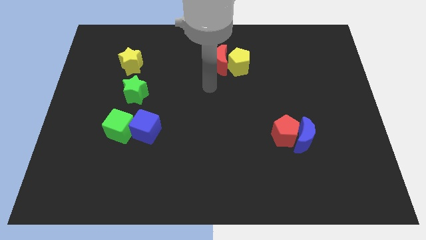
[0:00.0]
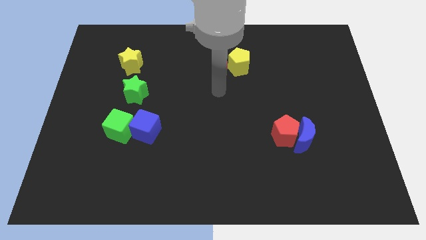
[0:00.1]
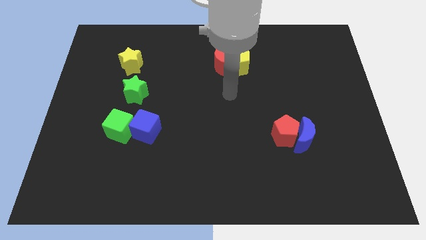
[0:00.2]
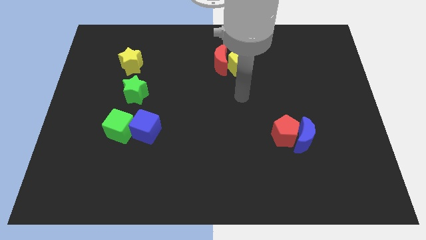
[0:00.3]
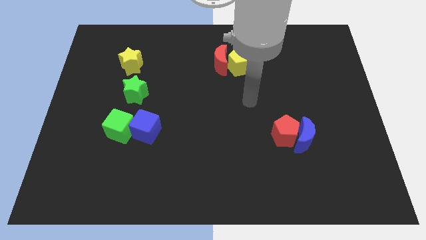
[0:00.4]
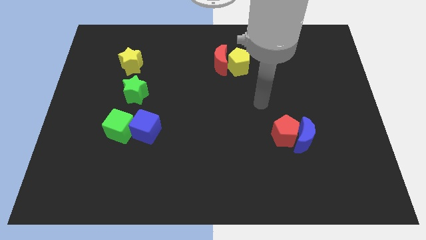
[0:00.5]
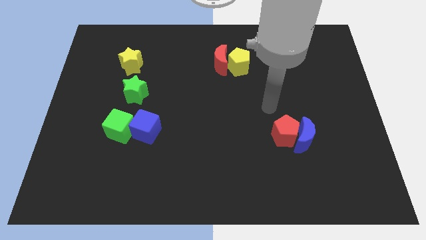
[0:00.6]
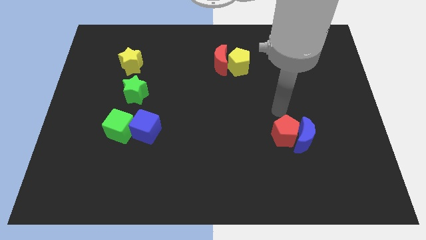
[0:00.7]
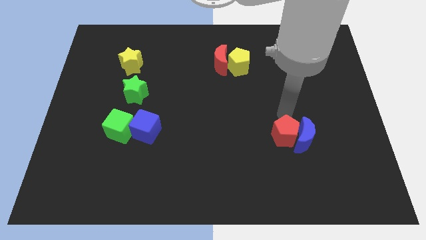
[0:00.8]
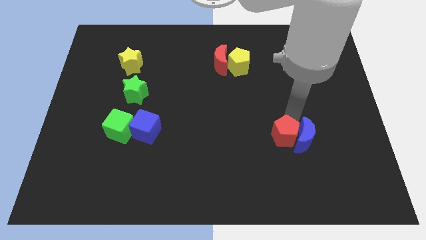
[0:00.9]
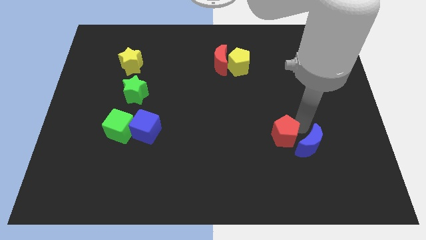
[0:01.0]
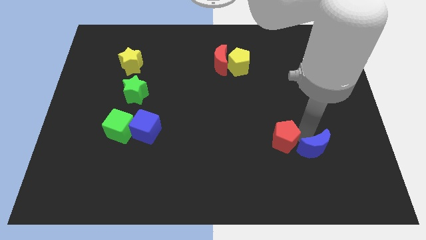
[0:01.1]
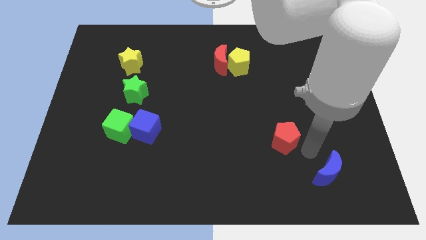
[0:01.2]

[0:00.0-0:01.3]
pull the red pentagon apart from the blue moon

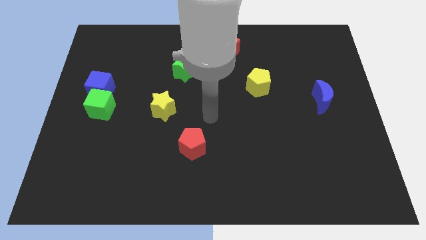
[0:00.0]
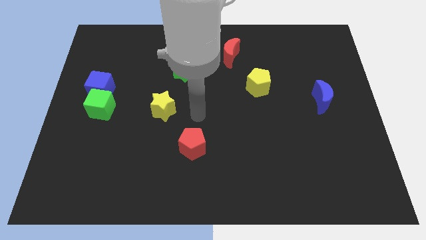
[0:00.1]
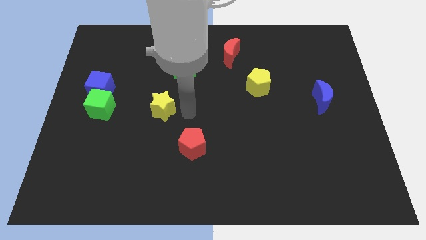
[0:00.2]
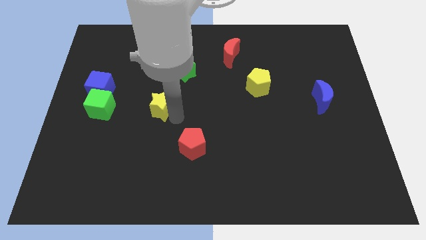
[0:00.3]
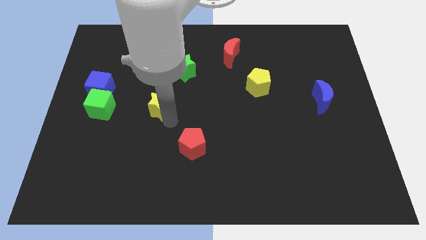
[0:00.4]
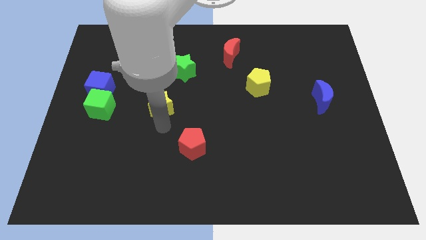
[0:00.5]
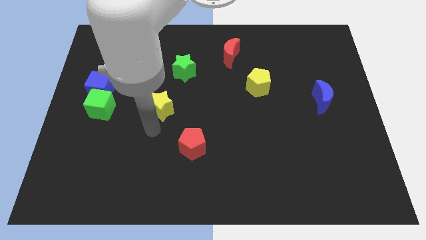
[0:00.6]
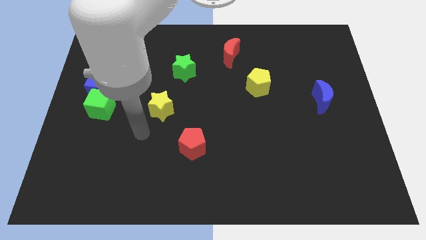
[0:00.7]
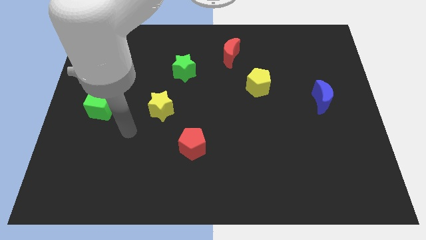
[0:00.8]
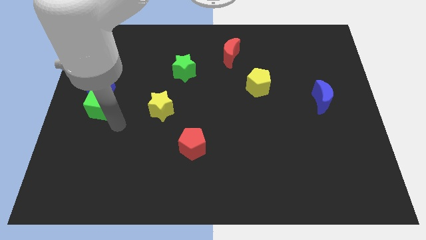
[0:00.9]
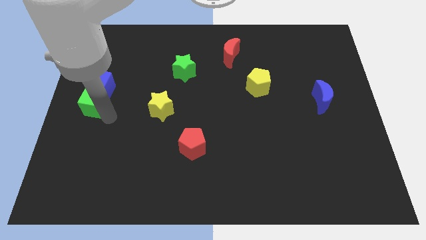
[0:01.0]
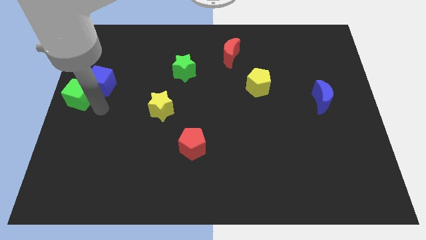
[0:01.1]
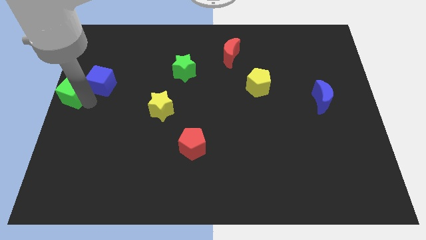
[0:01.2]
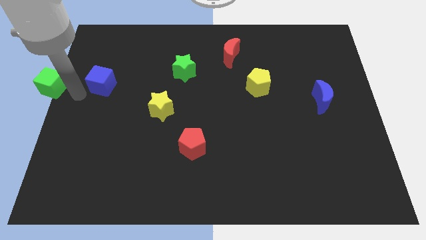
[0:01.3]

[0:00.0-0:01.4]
pull the blue cube apart from the green cube

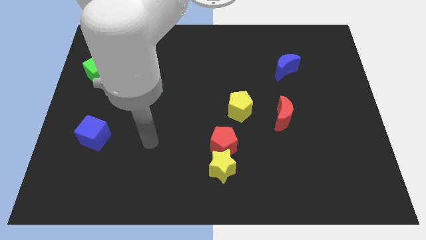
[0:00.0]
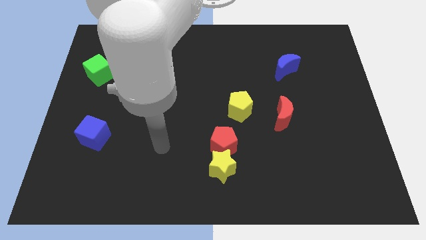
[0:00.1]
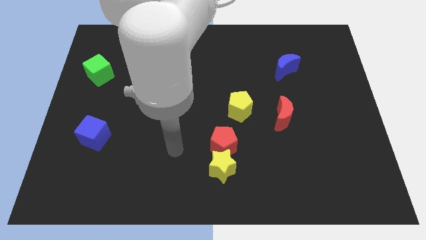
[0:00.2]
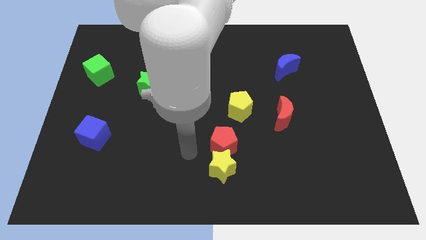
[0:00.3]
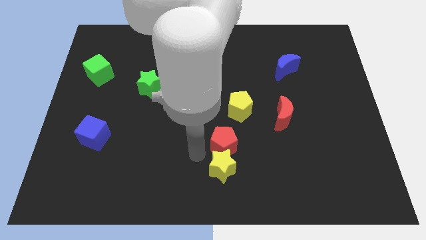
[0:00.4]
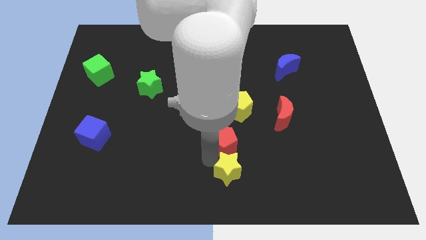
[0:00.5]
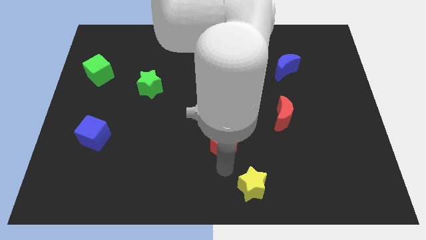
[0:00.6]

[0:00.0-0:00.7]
move the red pentagon away from the yellow star

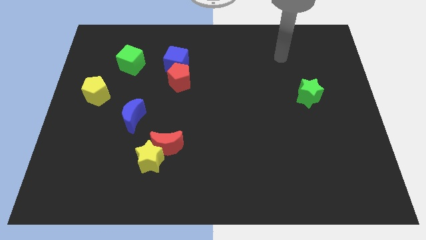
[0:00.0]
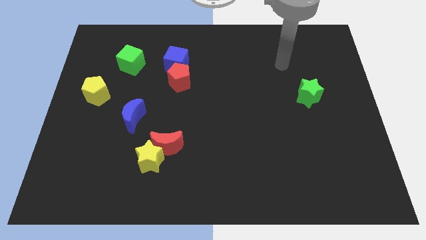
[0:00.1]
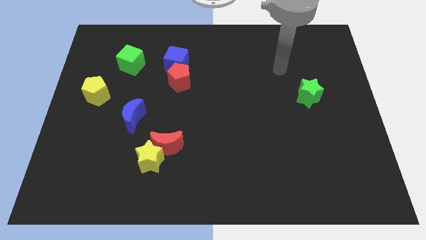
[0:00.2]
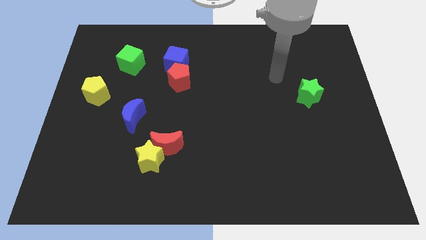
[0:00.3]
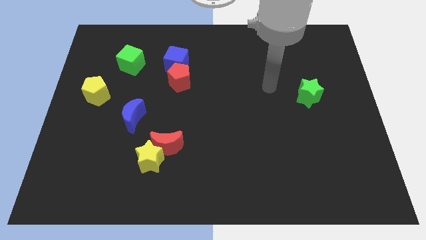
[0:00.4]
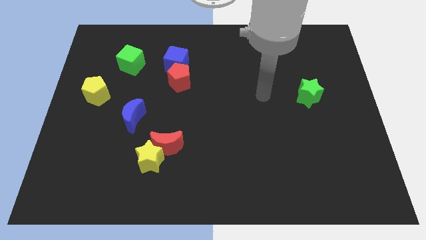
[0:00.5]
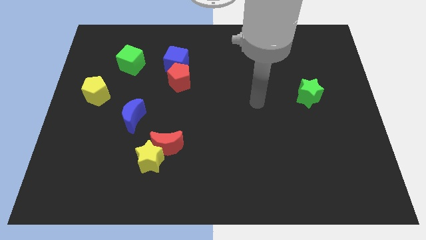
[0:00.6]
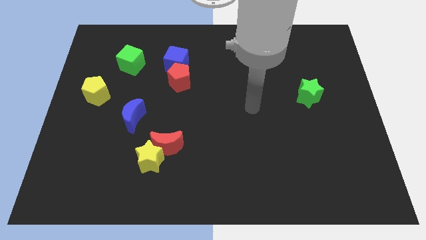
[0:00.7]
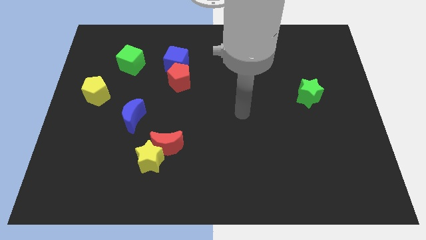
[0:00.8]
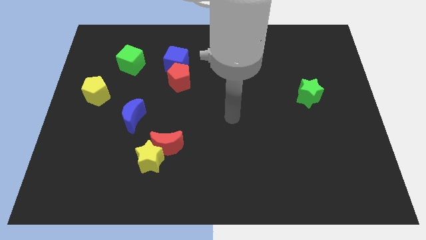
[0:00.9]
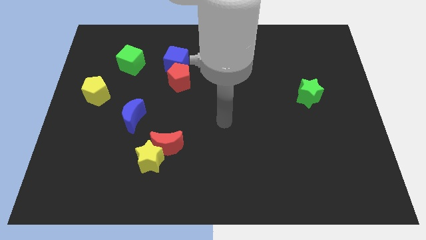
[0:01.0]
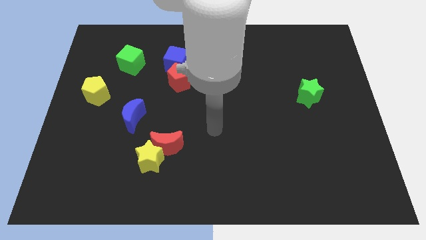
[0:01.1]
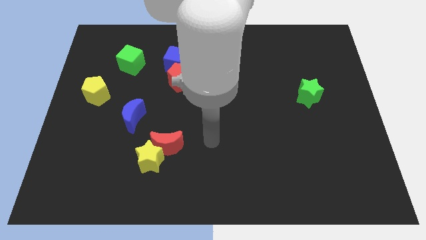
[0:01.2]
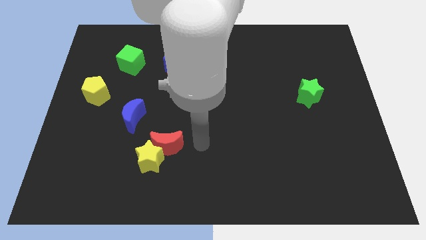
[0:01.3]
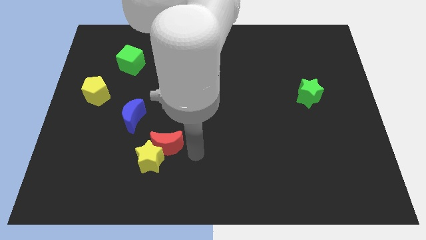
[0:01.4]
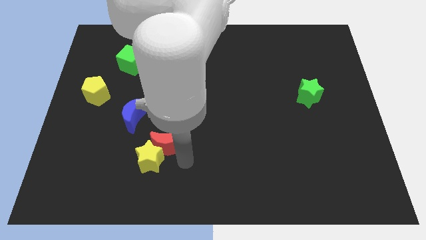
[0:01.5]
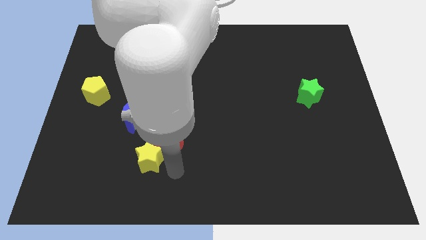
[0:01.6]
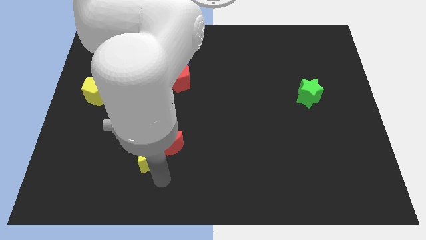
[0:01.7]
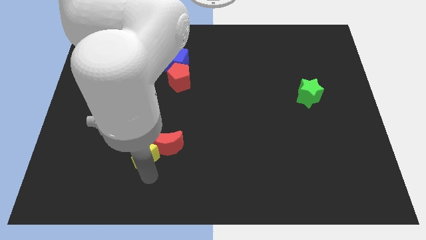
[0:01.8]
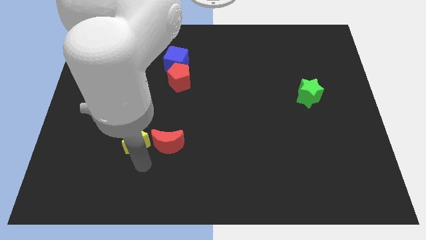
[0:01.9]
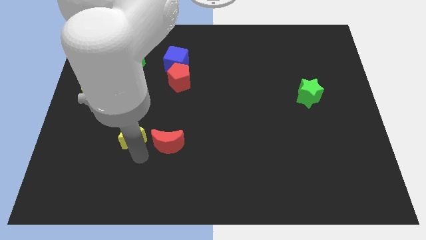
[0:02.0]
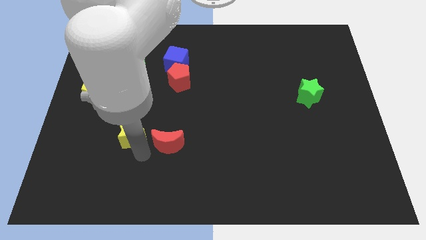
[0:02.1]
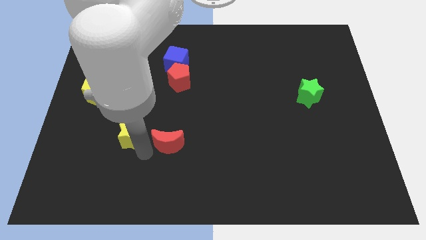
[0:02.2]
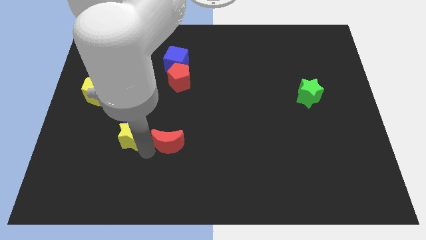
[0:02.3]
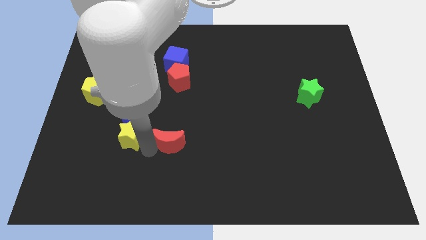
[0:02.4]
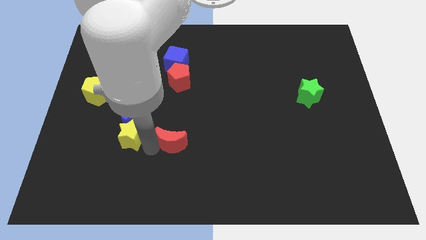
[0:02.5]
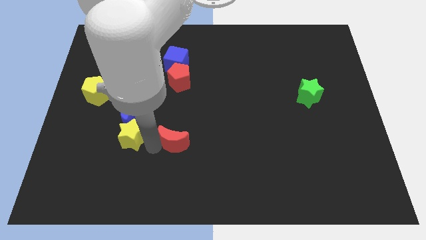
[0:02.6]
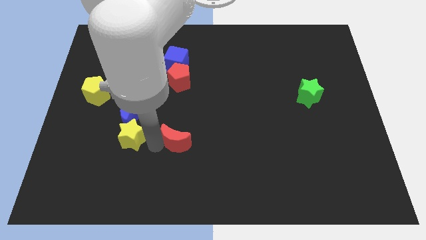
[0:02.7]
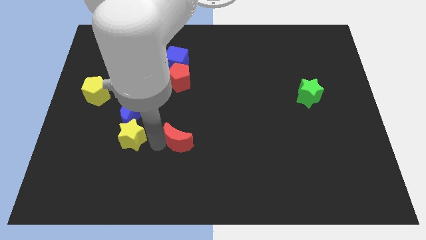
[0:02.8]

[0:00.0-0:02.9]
pull the red moon apart from the yellow star

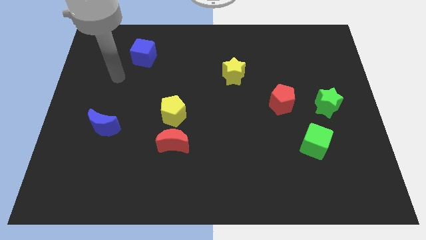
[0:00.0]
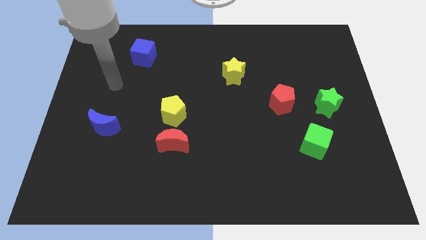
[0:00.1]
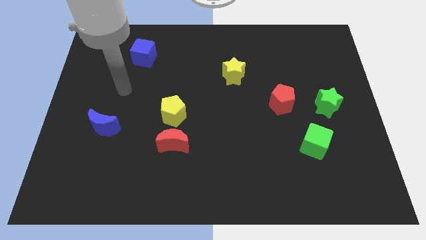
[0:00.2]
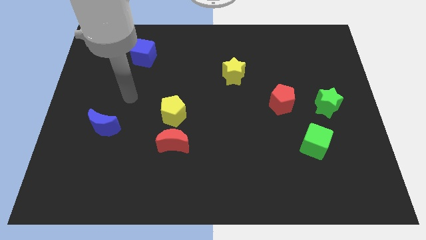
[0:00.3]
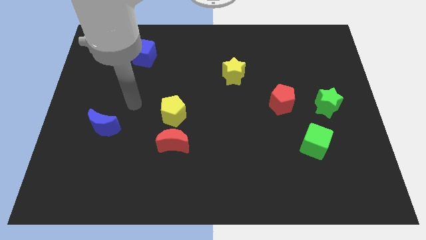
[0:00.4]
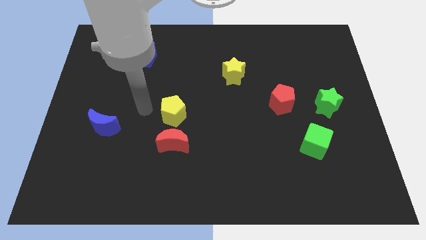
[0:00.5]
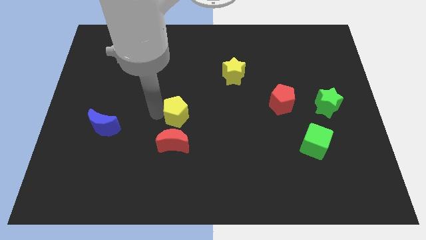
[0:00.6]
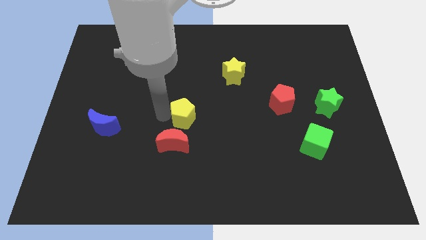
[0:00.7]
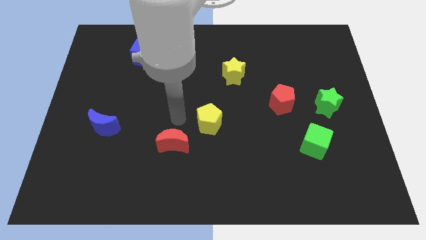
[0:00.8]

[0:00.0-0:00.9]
move the red moon away from the yellow pentagon

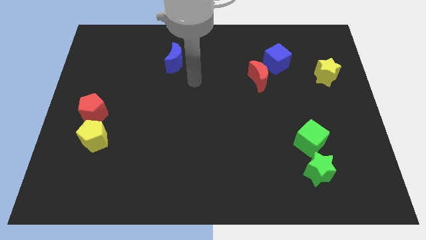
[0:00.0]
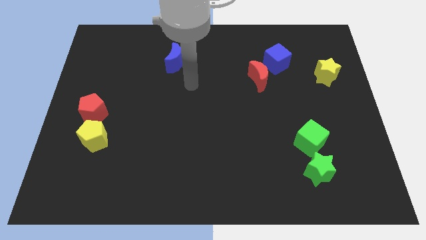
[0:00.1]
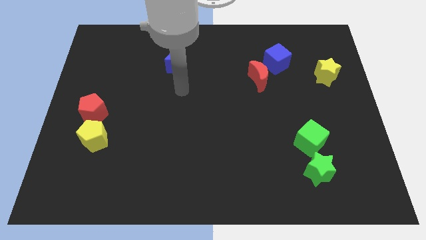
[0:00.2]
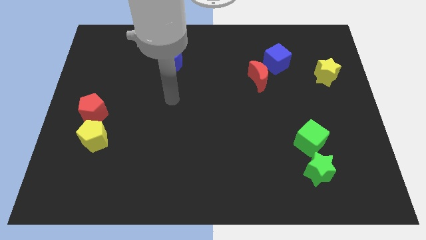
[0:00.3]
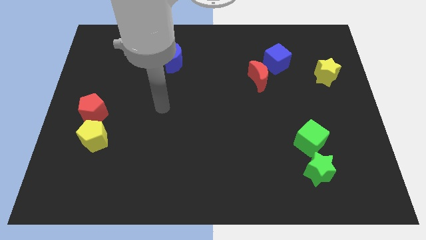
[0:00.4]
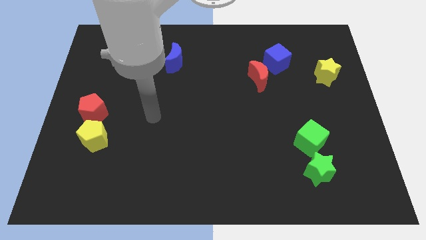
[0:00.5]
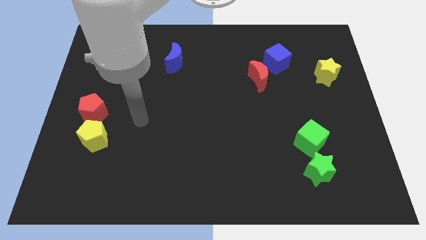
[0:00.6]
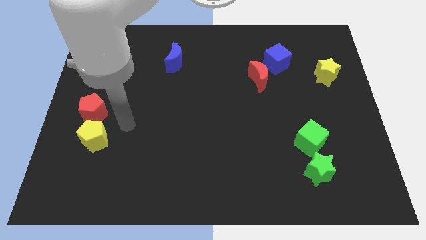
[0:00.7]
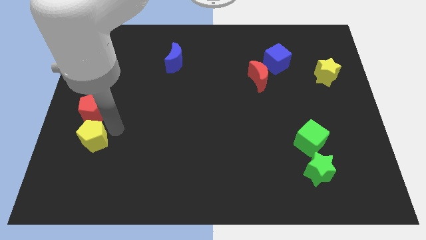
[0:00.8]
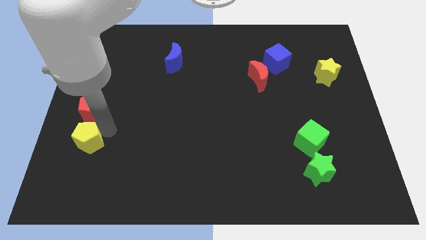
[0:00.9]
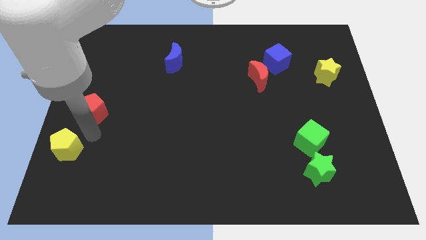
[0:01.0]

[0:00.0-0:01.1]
move the red pentagon away from the yellow pentagon

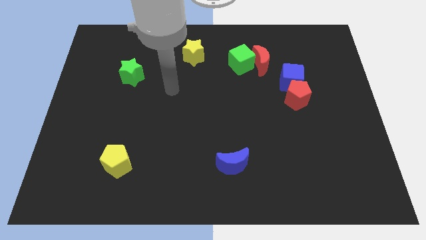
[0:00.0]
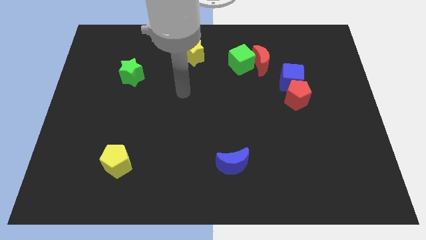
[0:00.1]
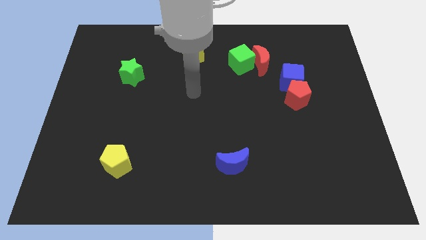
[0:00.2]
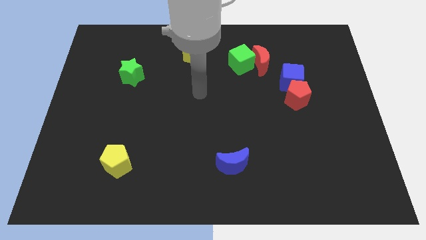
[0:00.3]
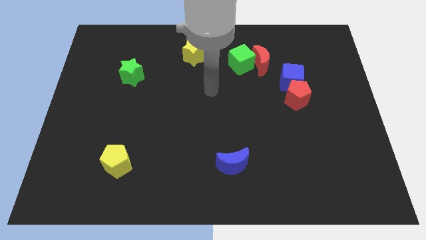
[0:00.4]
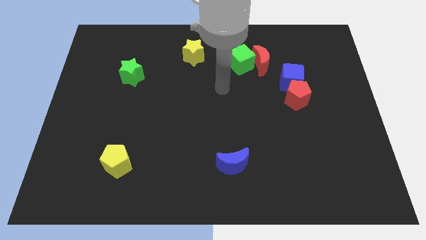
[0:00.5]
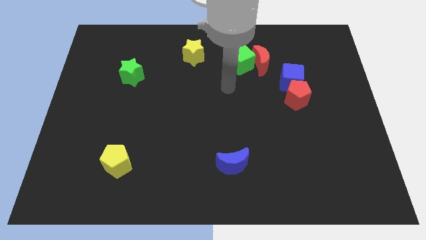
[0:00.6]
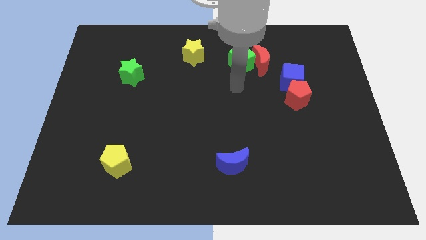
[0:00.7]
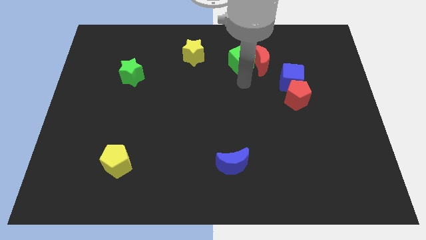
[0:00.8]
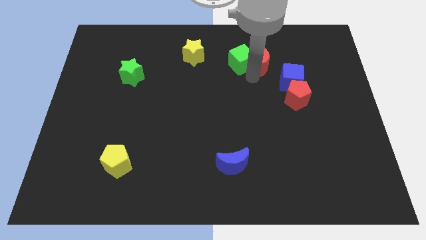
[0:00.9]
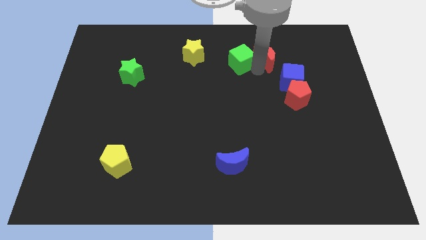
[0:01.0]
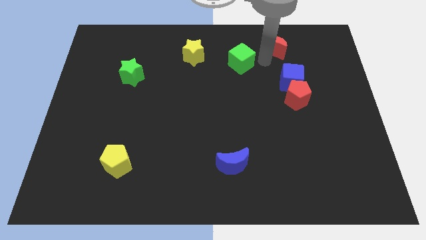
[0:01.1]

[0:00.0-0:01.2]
pull the green cube apart from the red moon
